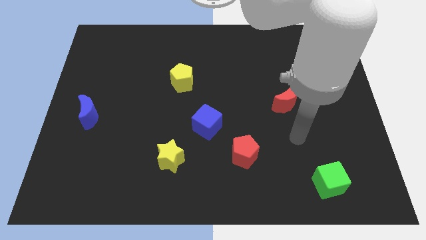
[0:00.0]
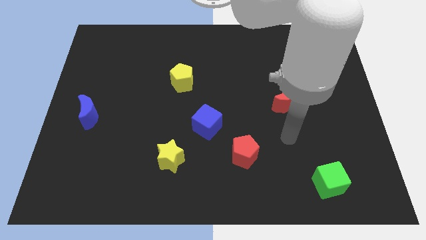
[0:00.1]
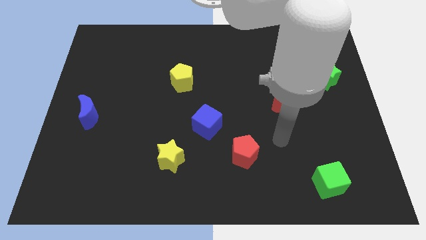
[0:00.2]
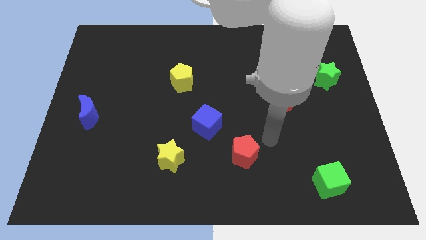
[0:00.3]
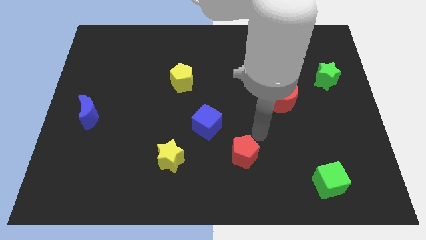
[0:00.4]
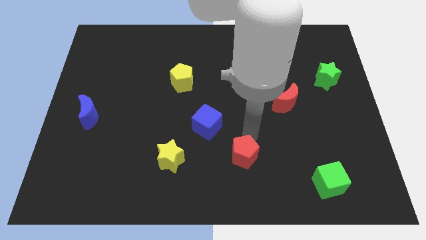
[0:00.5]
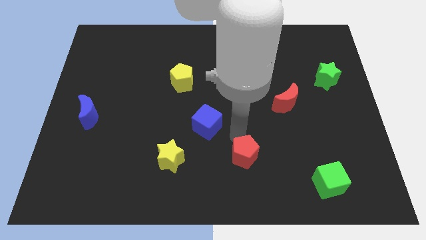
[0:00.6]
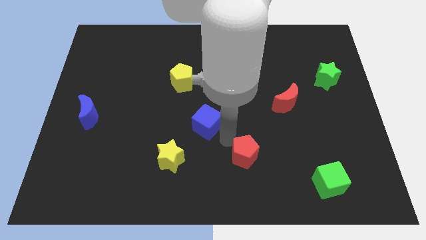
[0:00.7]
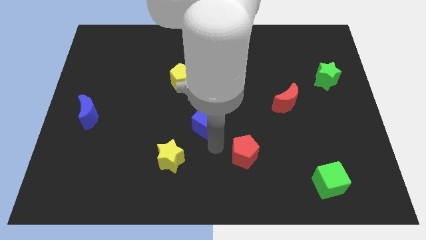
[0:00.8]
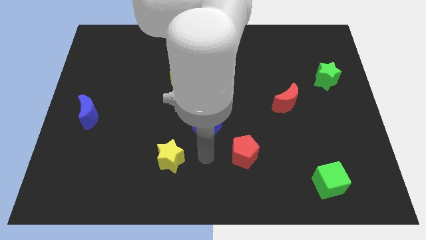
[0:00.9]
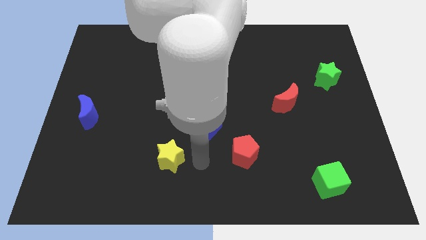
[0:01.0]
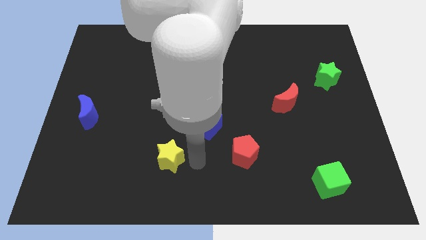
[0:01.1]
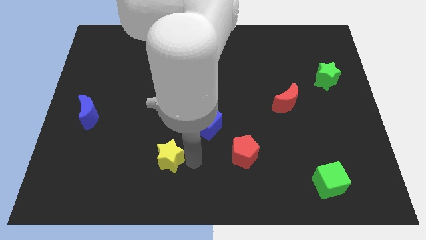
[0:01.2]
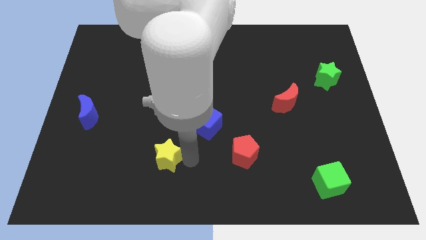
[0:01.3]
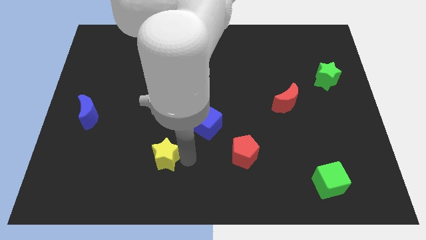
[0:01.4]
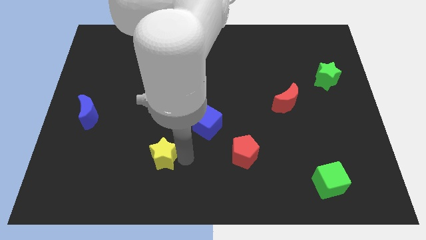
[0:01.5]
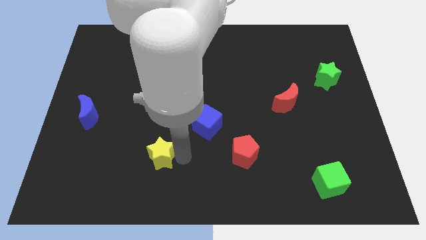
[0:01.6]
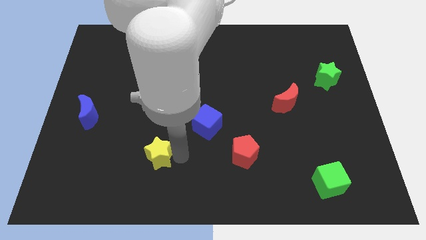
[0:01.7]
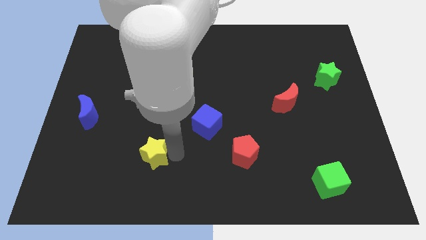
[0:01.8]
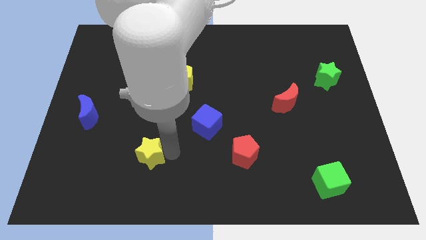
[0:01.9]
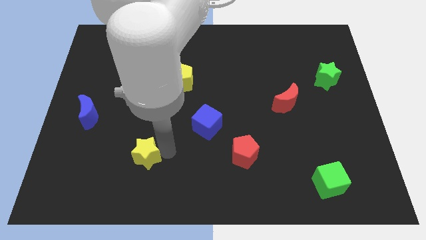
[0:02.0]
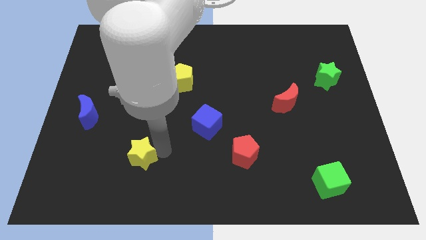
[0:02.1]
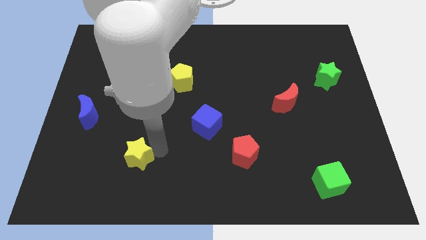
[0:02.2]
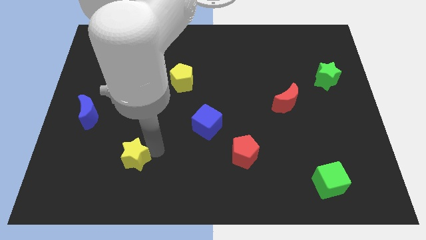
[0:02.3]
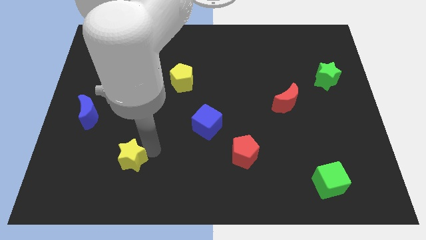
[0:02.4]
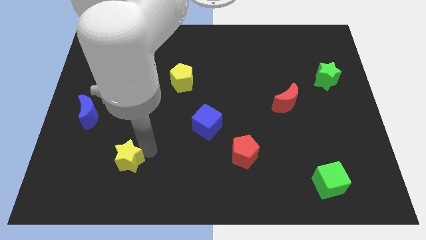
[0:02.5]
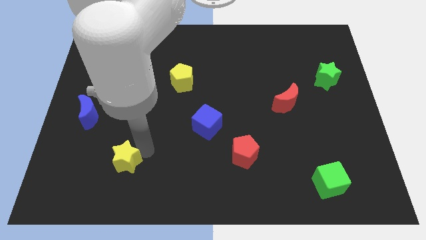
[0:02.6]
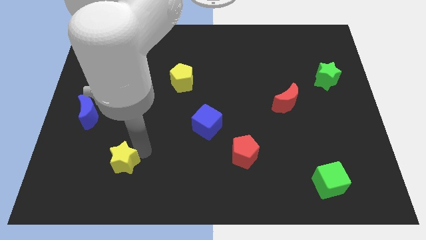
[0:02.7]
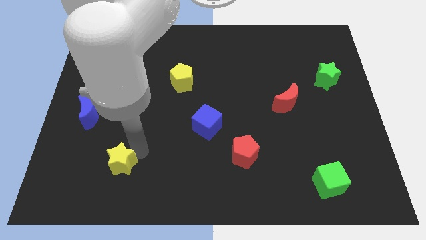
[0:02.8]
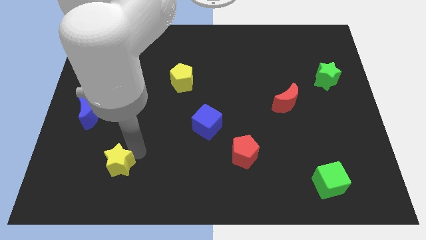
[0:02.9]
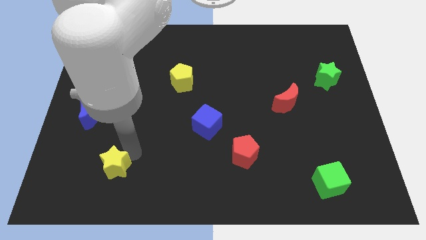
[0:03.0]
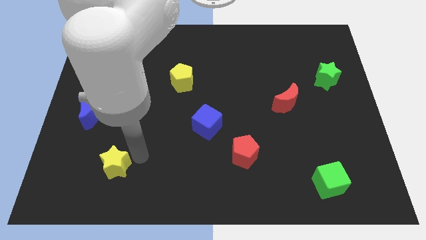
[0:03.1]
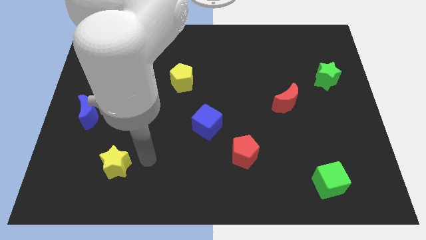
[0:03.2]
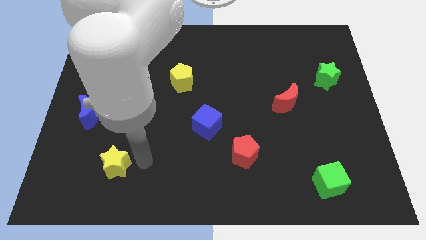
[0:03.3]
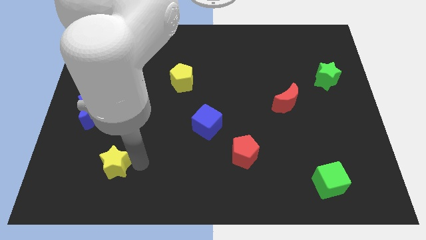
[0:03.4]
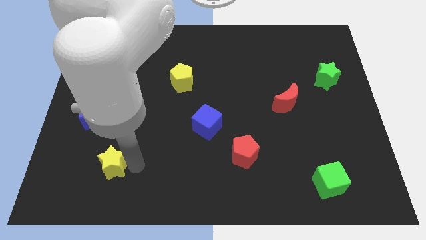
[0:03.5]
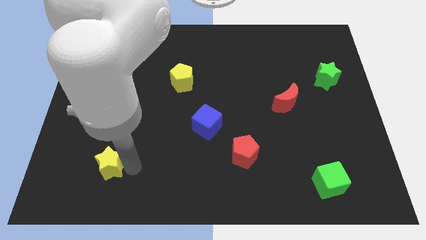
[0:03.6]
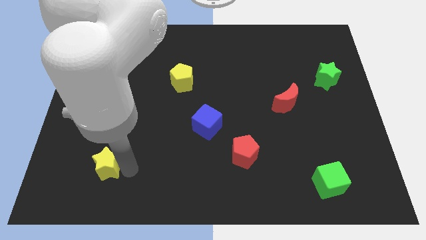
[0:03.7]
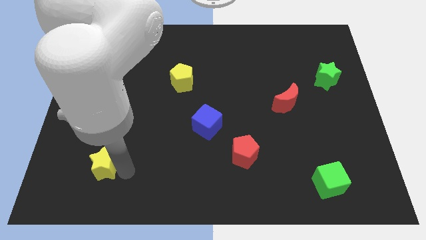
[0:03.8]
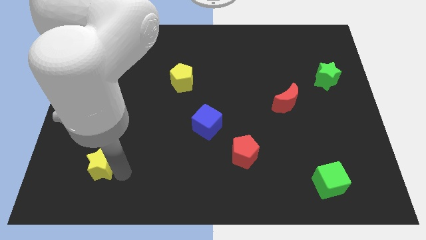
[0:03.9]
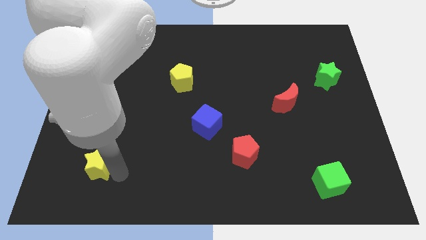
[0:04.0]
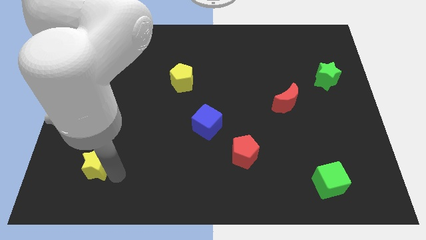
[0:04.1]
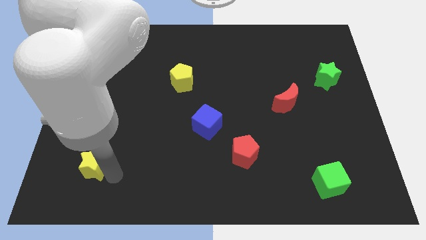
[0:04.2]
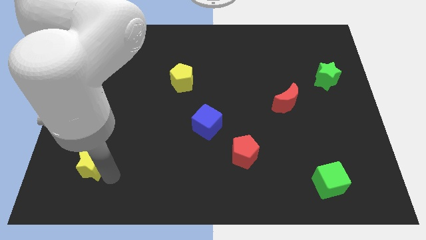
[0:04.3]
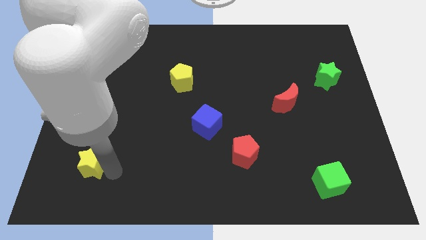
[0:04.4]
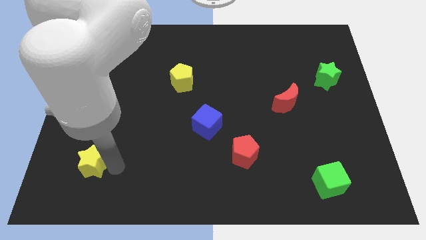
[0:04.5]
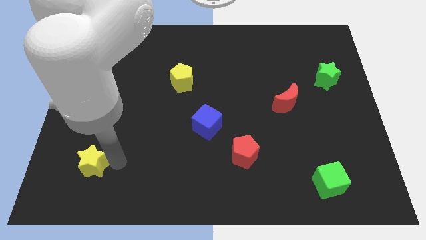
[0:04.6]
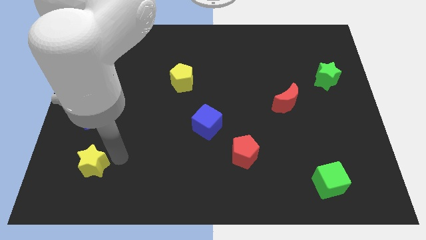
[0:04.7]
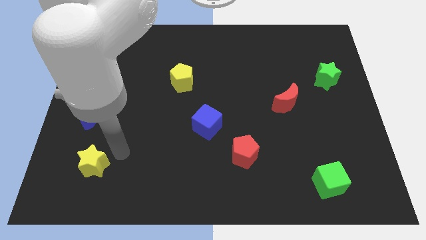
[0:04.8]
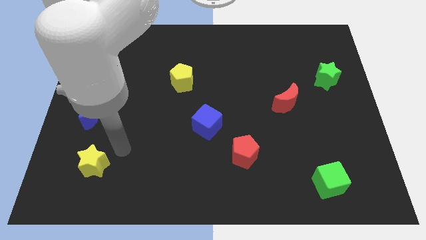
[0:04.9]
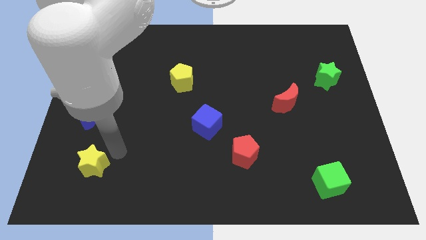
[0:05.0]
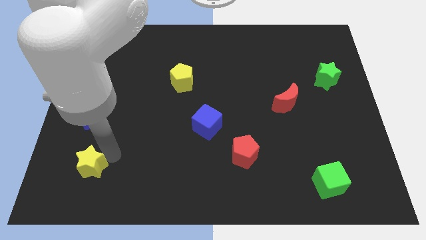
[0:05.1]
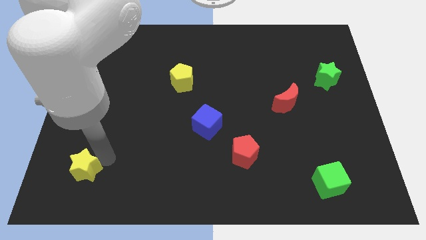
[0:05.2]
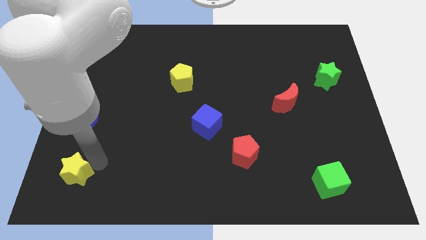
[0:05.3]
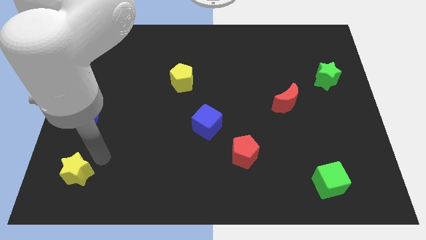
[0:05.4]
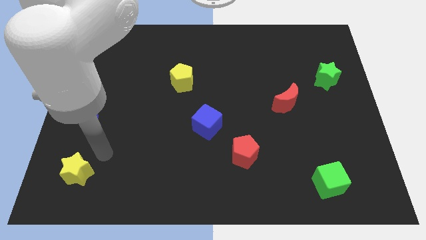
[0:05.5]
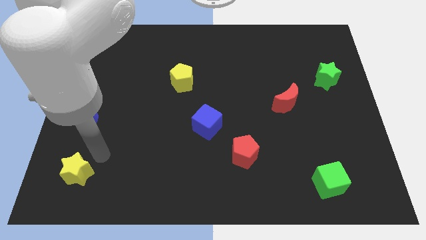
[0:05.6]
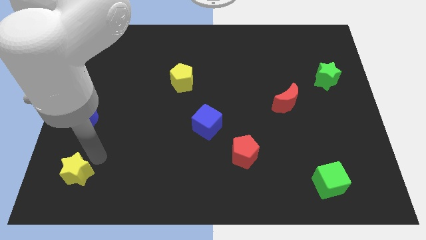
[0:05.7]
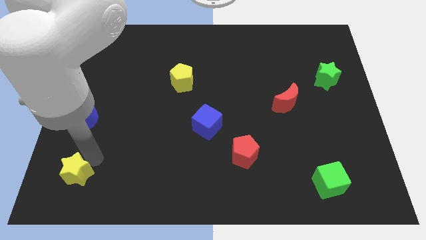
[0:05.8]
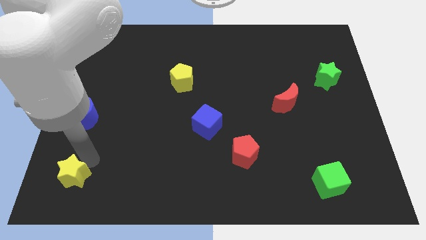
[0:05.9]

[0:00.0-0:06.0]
slide the yellow star to the lower left corner

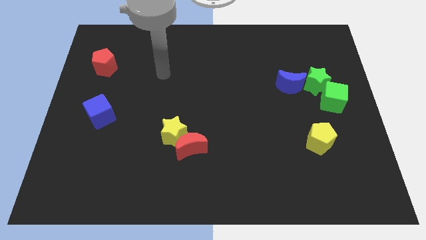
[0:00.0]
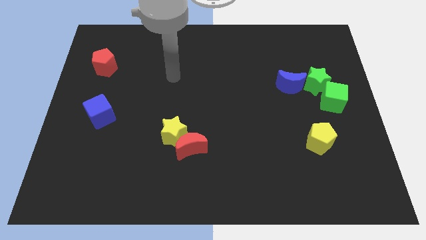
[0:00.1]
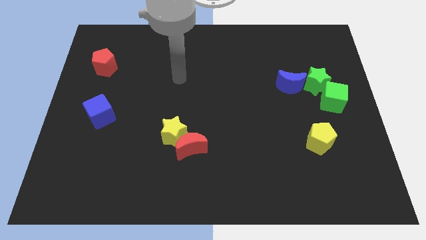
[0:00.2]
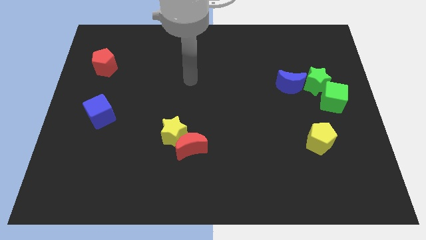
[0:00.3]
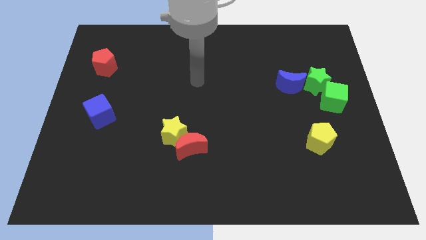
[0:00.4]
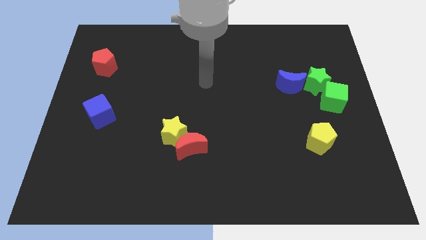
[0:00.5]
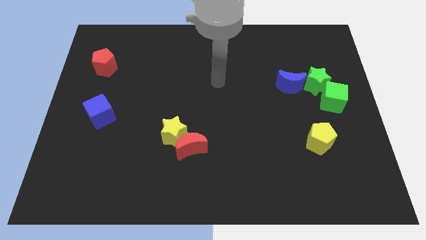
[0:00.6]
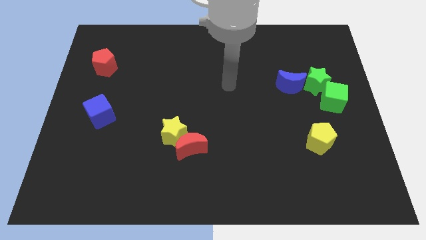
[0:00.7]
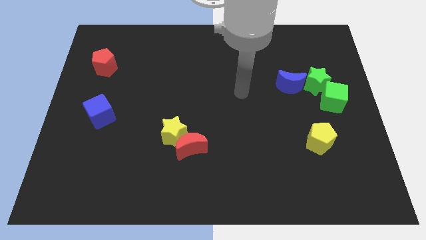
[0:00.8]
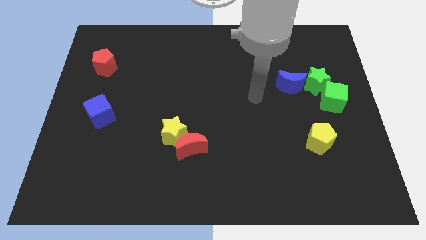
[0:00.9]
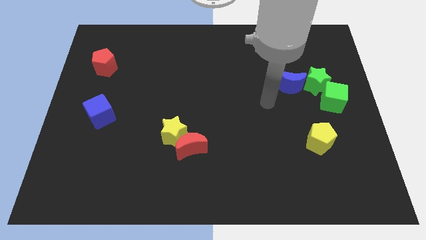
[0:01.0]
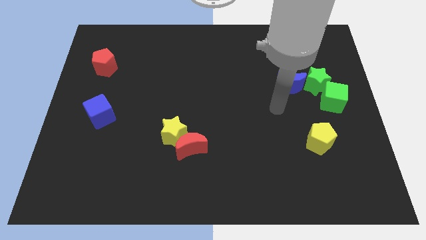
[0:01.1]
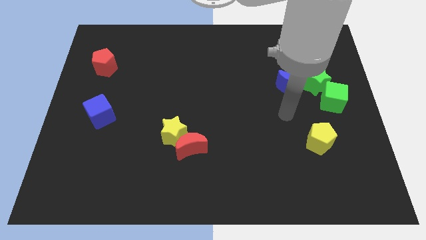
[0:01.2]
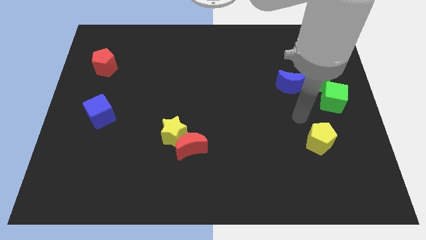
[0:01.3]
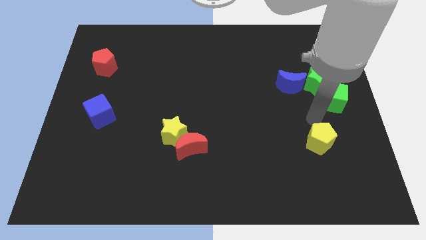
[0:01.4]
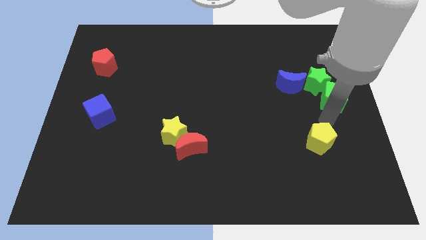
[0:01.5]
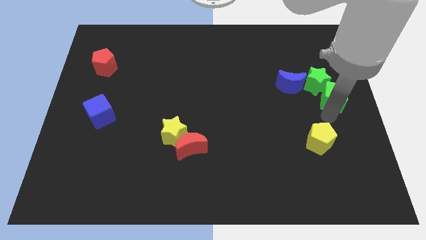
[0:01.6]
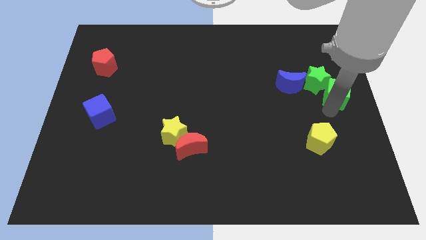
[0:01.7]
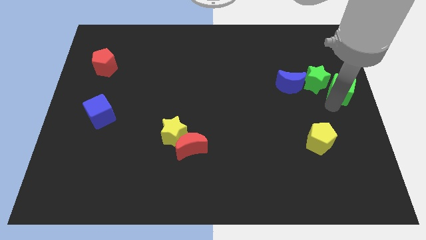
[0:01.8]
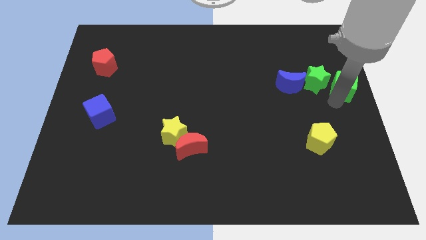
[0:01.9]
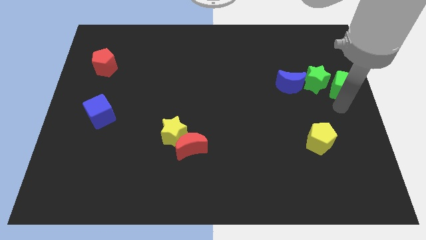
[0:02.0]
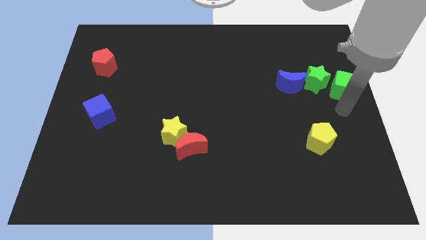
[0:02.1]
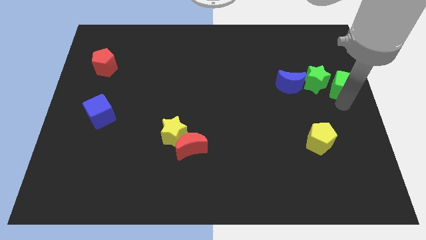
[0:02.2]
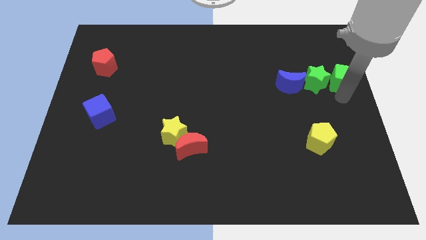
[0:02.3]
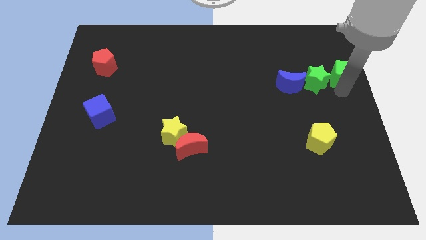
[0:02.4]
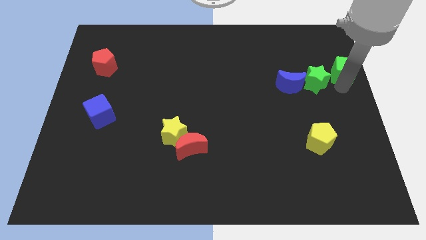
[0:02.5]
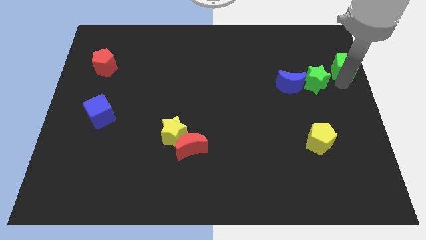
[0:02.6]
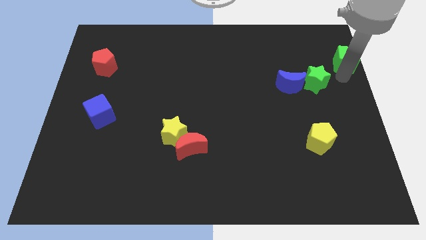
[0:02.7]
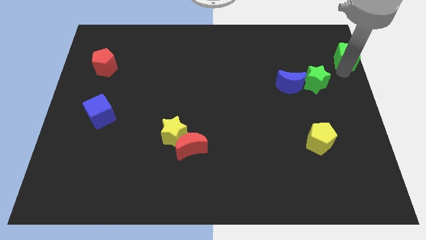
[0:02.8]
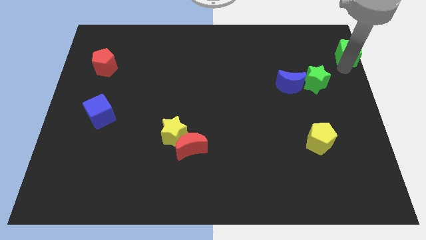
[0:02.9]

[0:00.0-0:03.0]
move the green cube to the upper right corner
